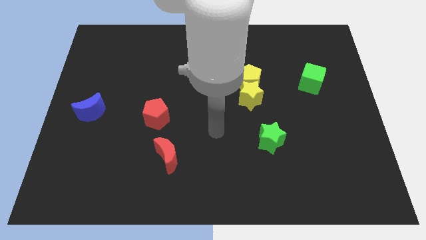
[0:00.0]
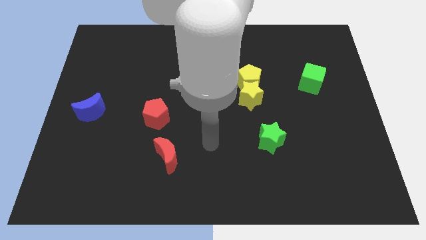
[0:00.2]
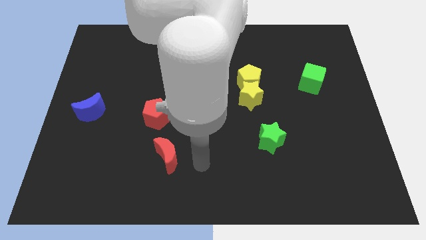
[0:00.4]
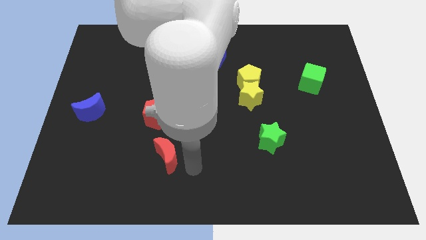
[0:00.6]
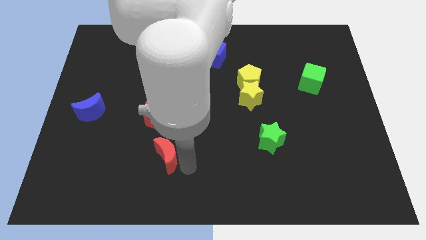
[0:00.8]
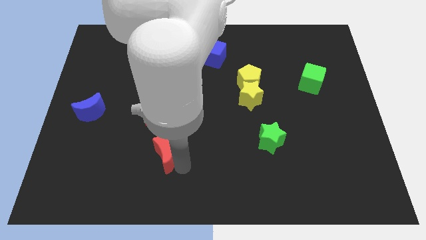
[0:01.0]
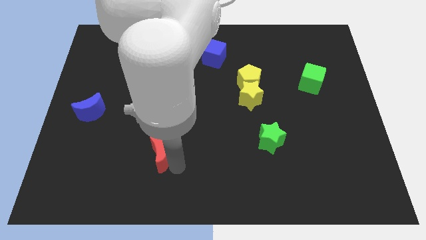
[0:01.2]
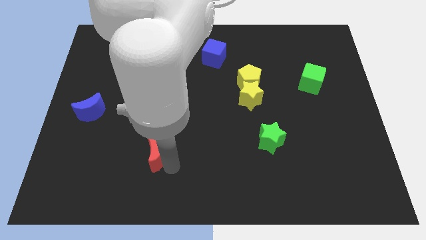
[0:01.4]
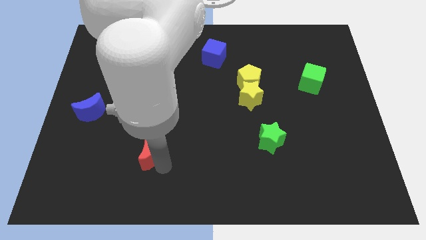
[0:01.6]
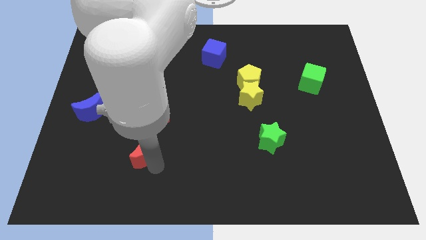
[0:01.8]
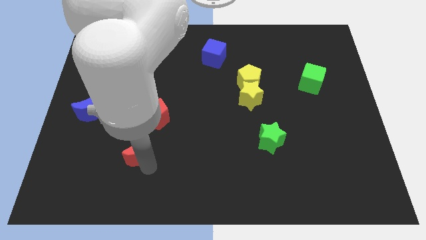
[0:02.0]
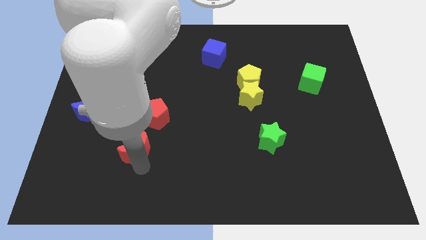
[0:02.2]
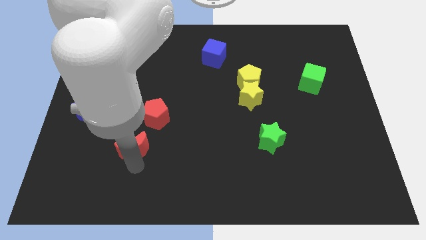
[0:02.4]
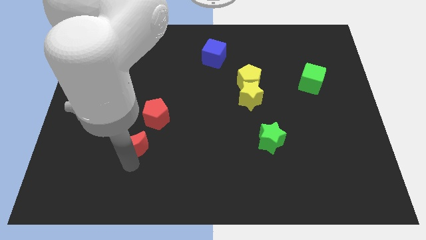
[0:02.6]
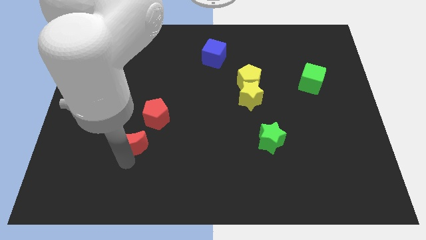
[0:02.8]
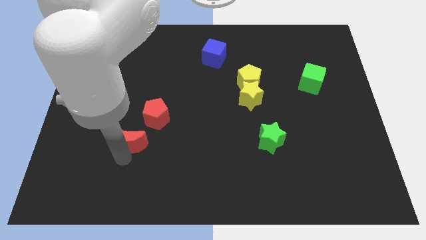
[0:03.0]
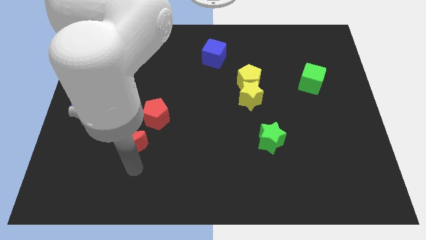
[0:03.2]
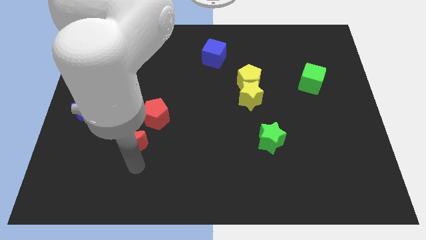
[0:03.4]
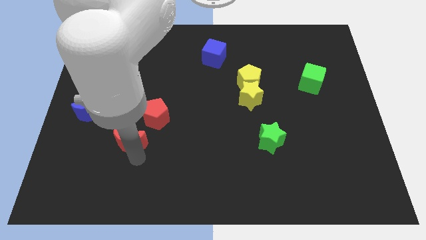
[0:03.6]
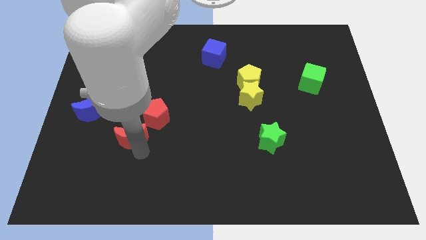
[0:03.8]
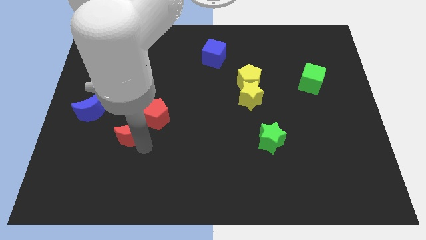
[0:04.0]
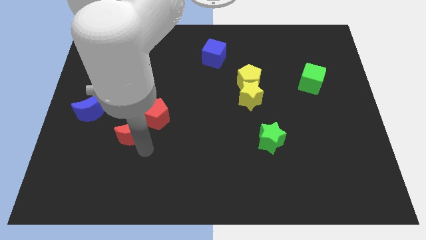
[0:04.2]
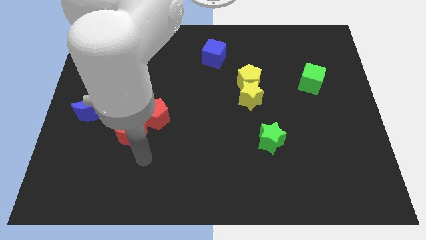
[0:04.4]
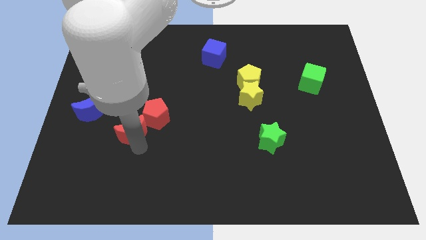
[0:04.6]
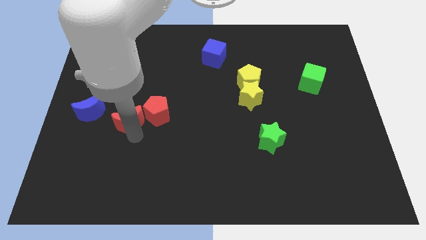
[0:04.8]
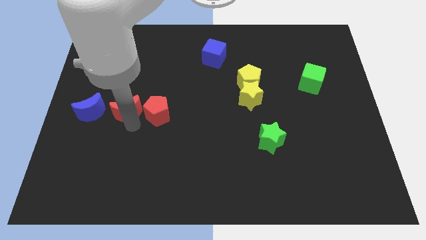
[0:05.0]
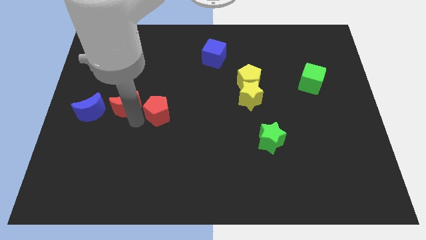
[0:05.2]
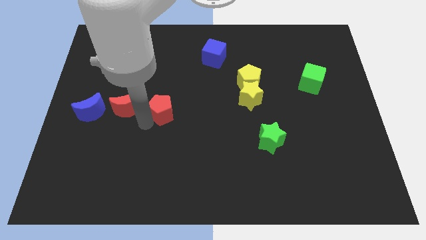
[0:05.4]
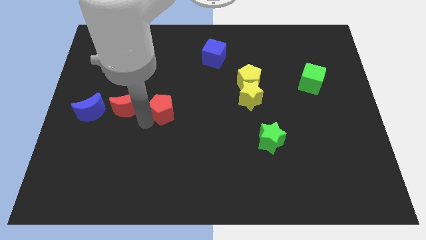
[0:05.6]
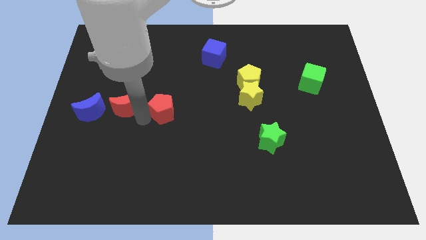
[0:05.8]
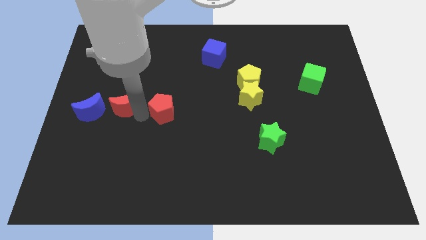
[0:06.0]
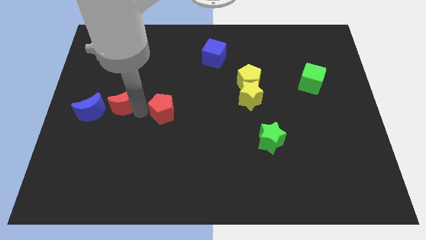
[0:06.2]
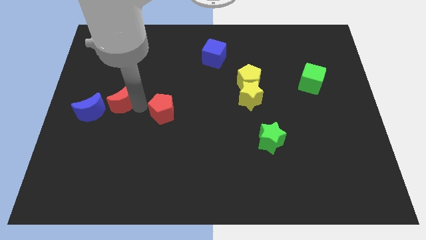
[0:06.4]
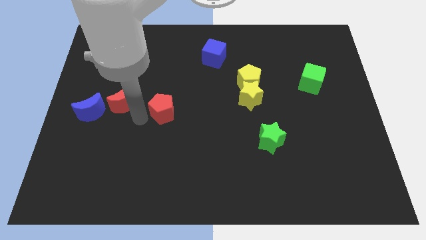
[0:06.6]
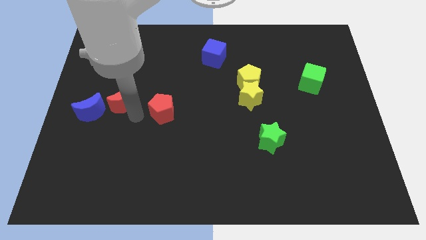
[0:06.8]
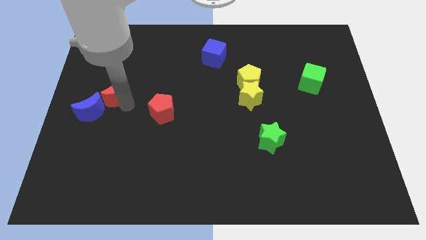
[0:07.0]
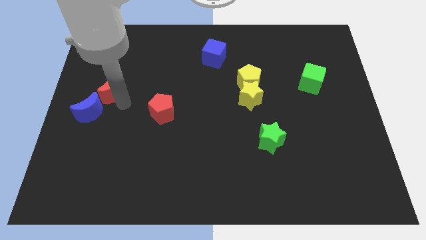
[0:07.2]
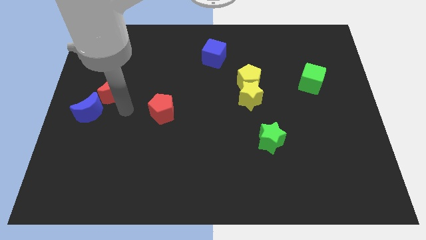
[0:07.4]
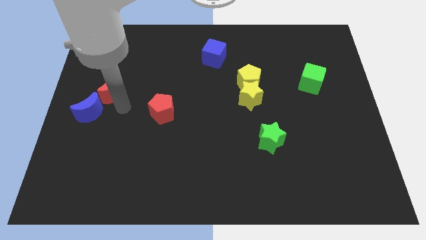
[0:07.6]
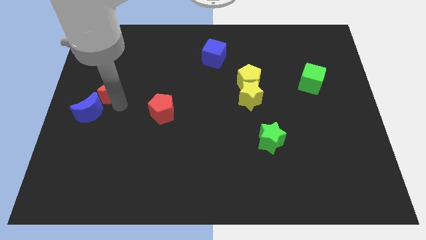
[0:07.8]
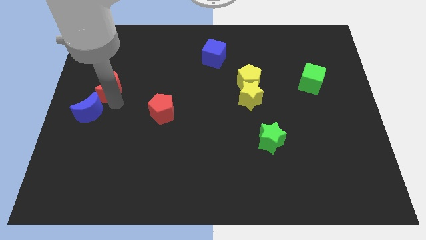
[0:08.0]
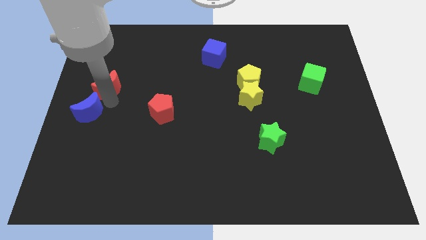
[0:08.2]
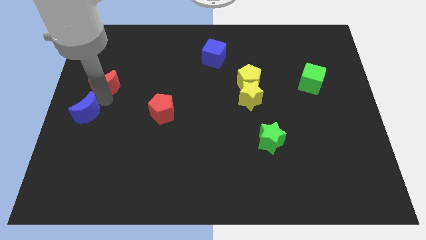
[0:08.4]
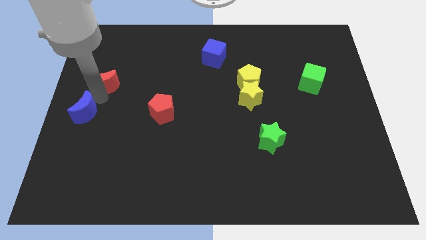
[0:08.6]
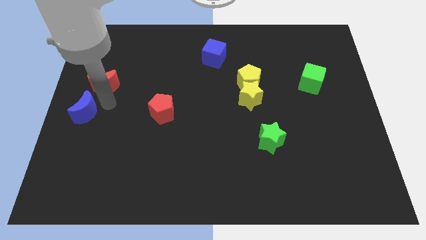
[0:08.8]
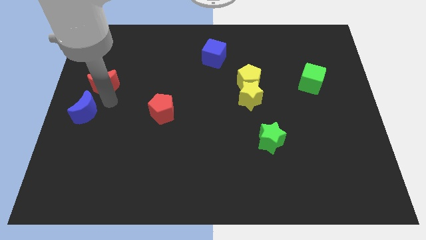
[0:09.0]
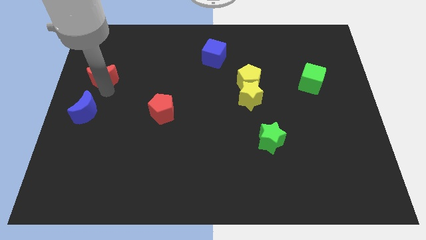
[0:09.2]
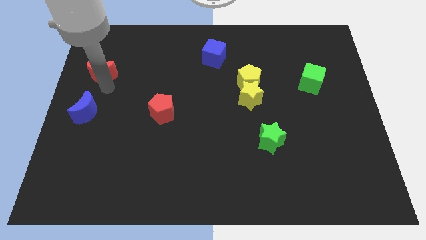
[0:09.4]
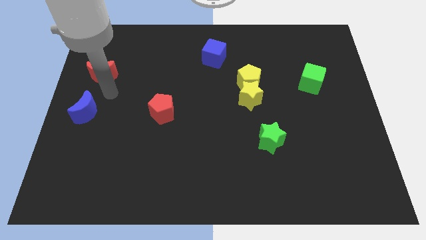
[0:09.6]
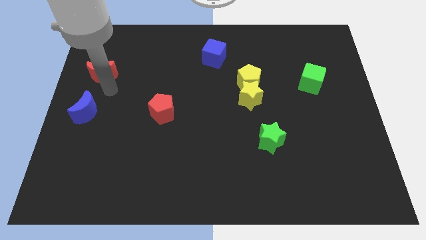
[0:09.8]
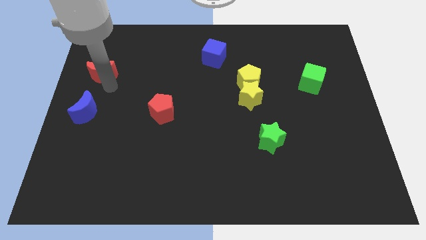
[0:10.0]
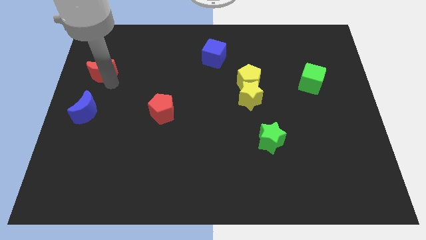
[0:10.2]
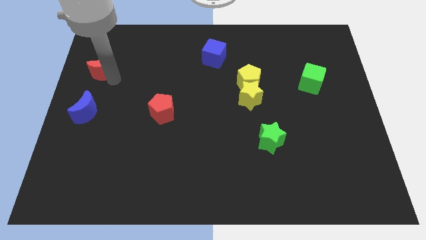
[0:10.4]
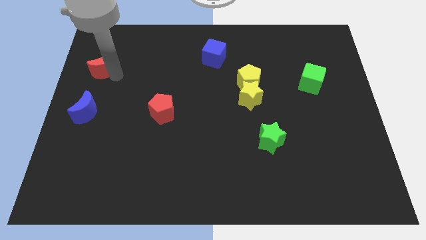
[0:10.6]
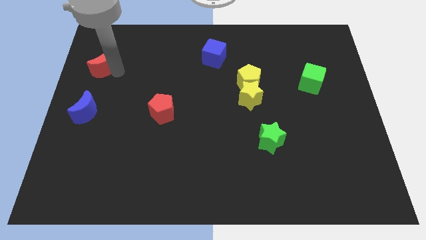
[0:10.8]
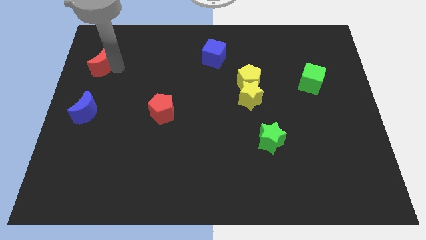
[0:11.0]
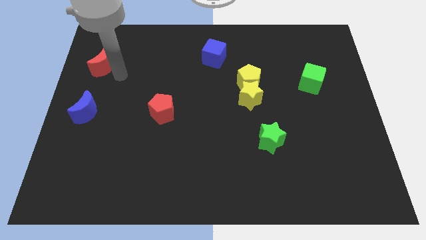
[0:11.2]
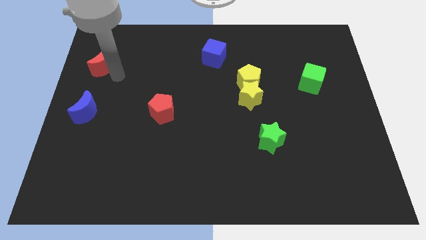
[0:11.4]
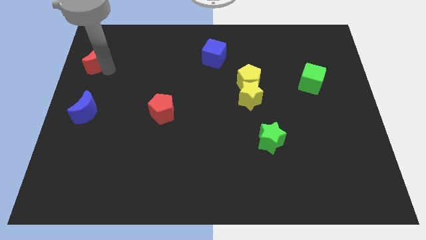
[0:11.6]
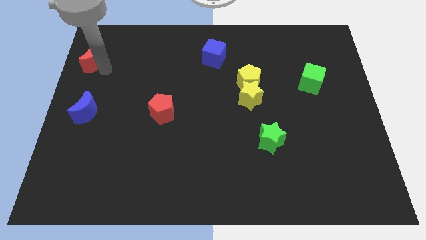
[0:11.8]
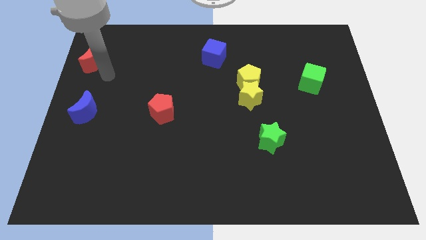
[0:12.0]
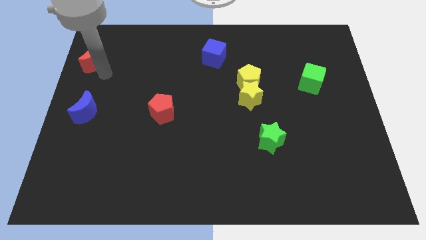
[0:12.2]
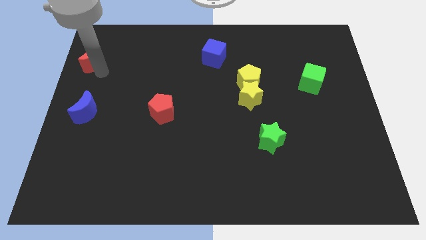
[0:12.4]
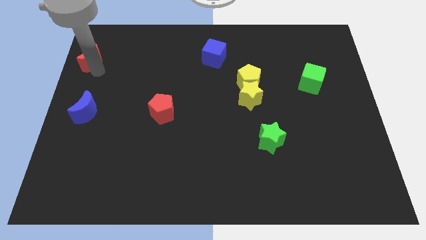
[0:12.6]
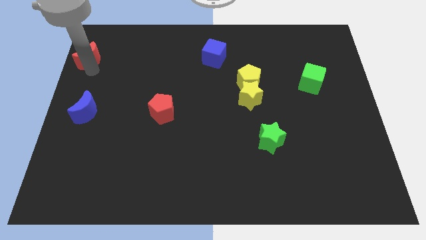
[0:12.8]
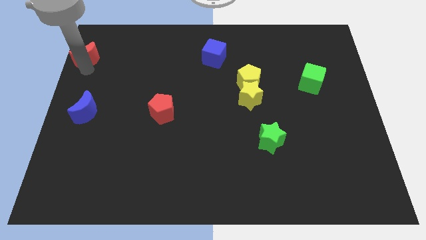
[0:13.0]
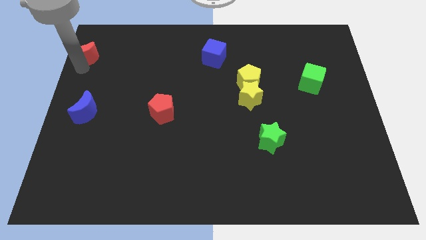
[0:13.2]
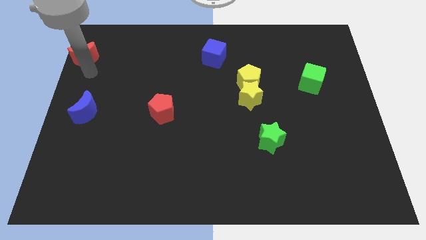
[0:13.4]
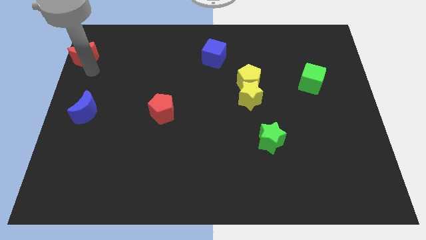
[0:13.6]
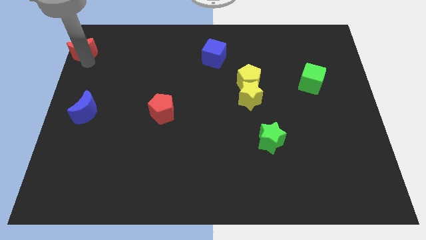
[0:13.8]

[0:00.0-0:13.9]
slide the red moon to the top left
